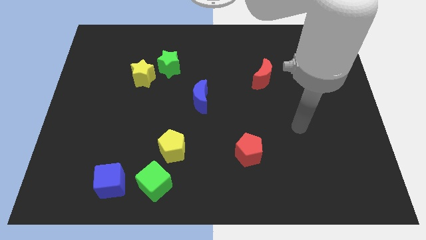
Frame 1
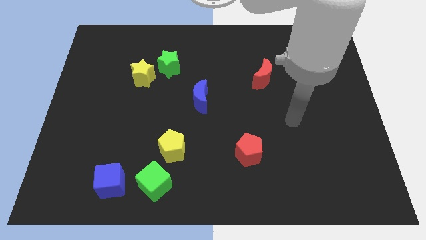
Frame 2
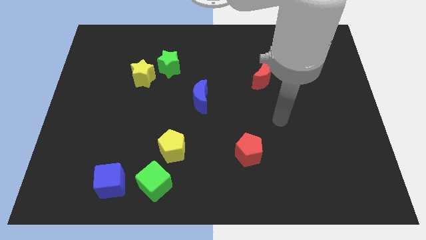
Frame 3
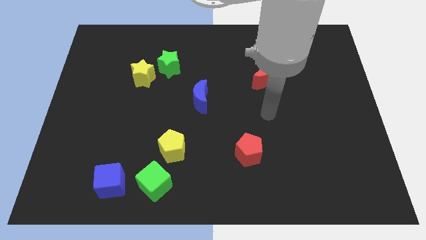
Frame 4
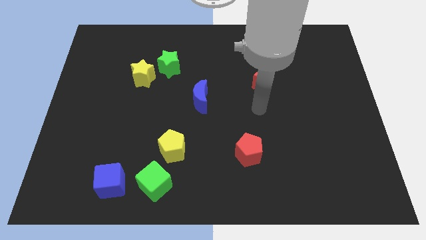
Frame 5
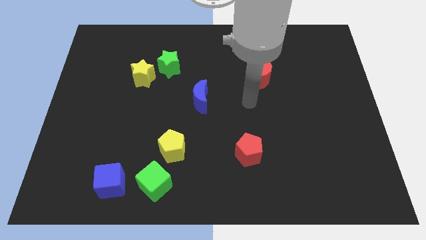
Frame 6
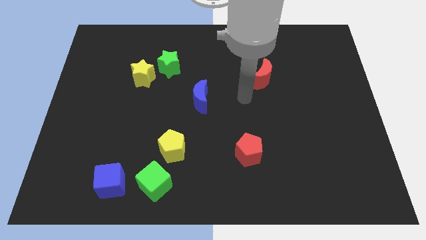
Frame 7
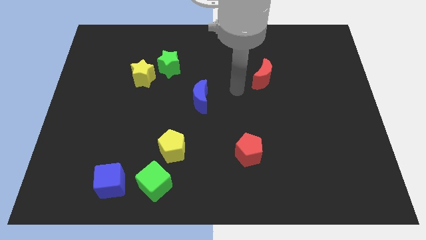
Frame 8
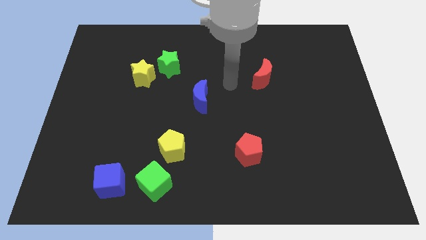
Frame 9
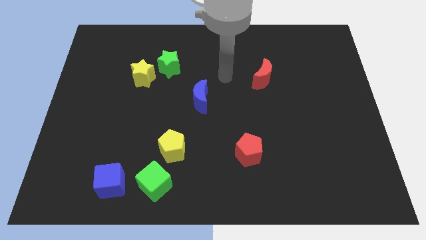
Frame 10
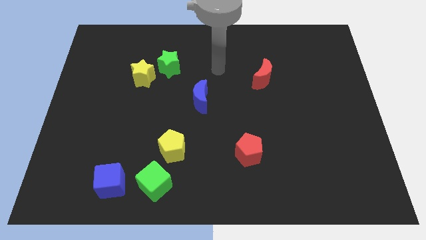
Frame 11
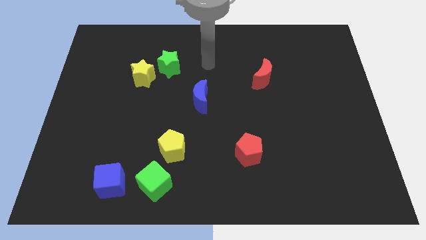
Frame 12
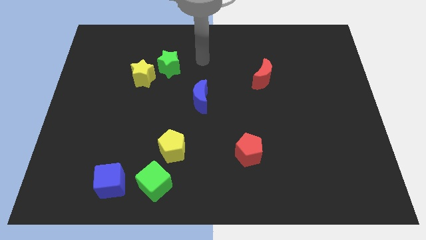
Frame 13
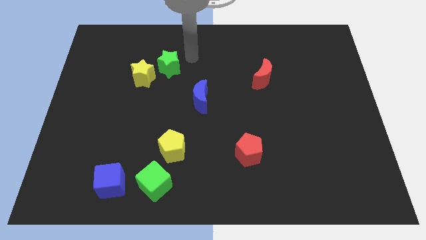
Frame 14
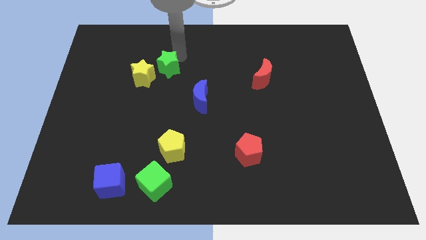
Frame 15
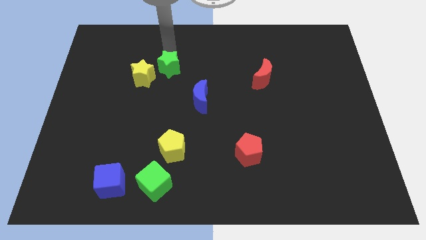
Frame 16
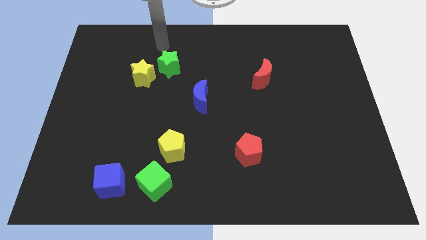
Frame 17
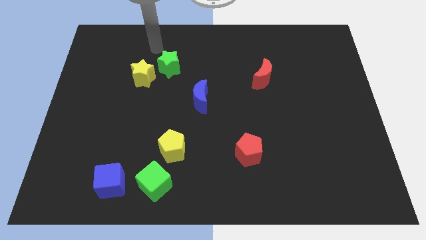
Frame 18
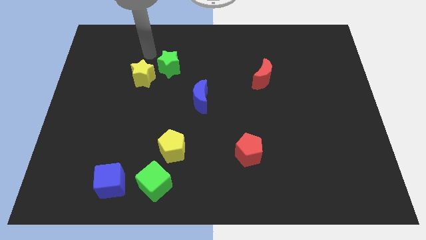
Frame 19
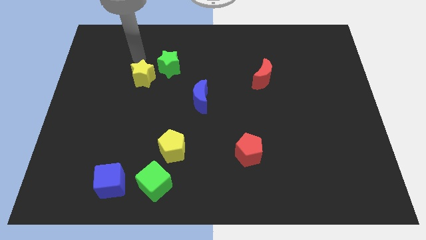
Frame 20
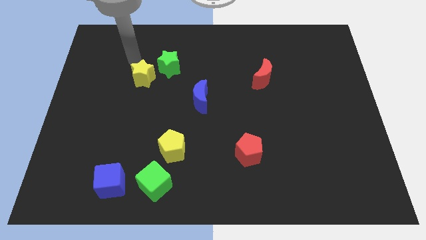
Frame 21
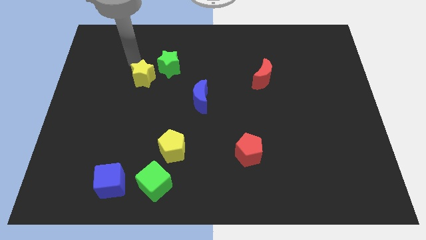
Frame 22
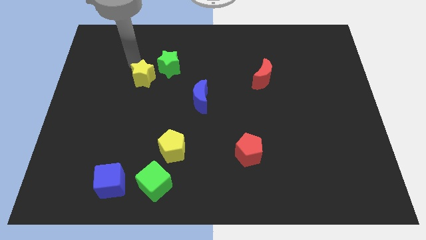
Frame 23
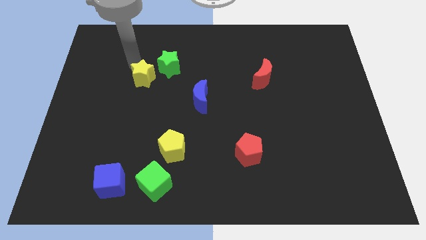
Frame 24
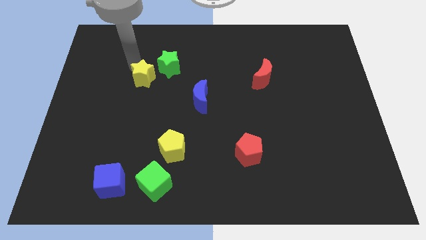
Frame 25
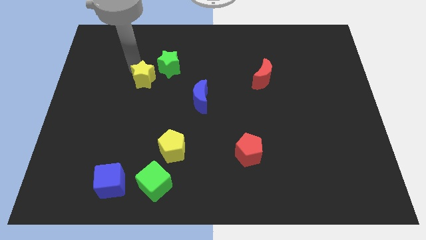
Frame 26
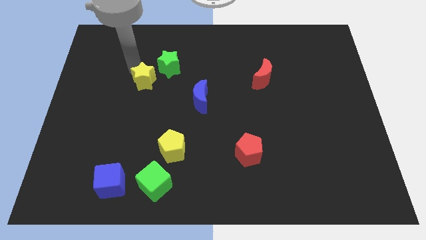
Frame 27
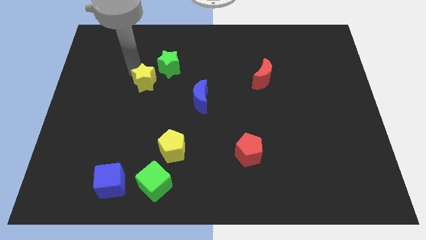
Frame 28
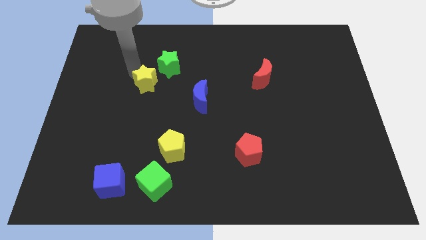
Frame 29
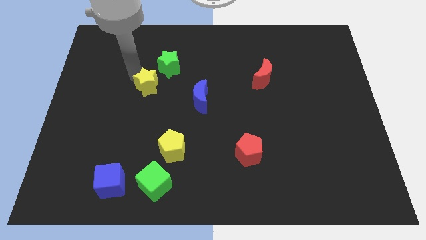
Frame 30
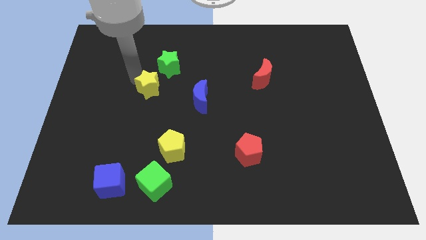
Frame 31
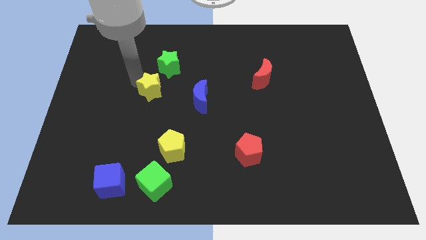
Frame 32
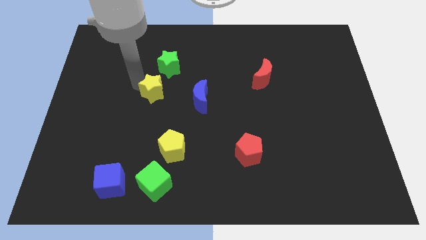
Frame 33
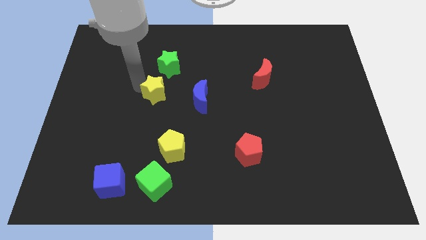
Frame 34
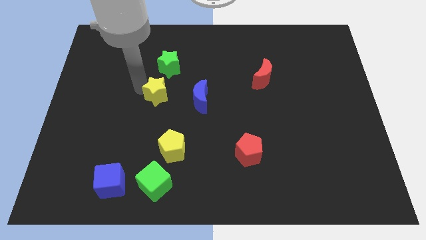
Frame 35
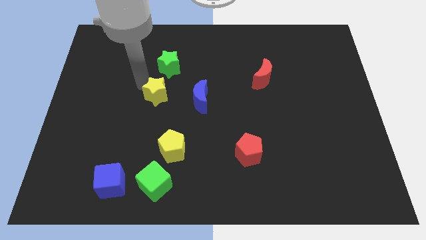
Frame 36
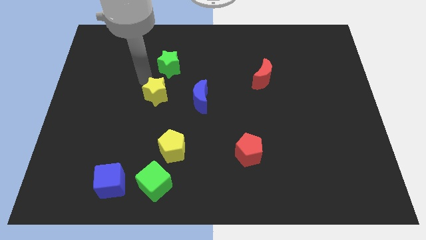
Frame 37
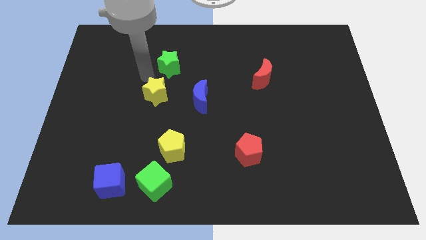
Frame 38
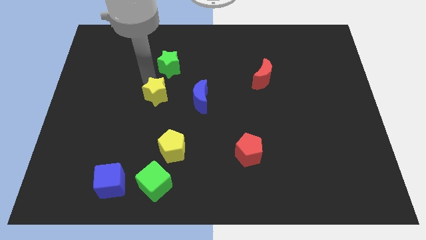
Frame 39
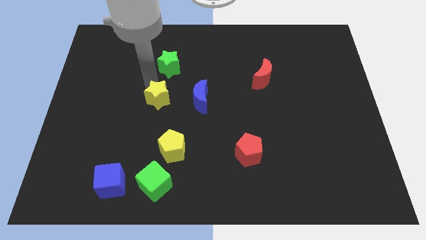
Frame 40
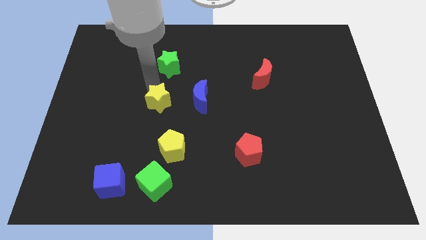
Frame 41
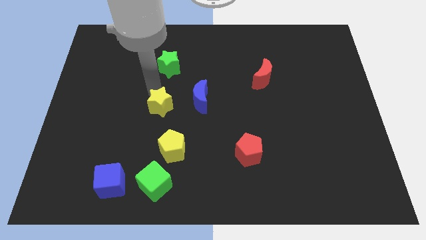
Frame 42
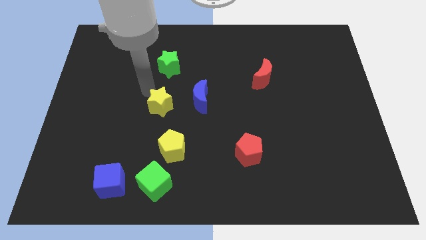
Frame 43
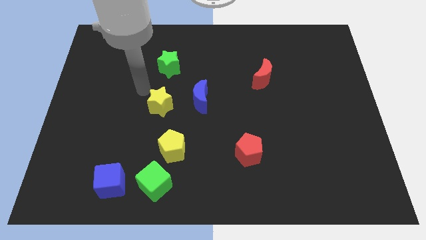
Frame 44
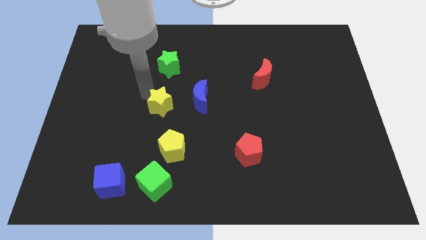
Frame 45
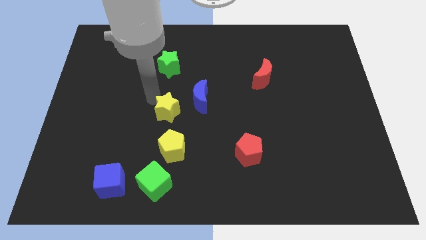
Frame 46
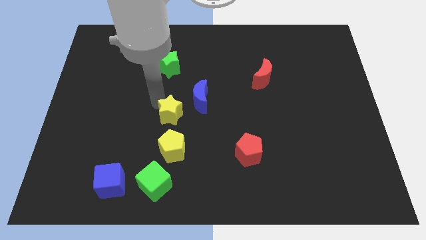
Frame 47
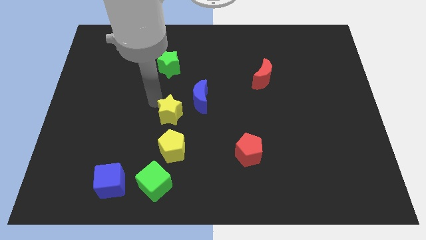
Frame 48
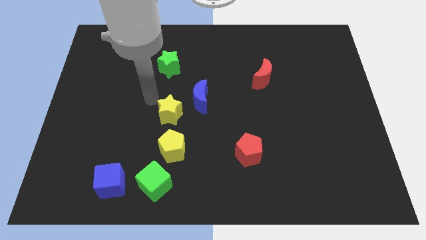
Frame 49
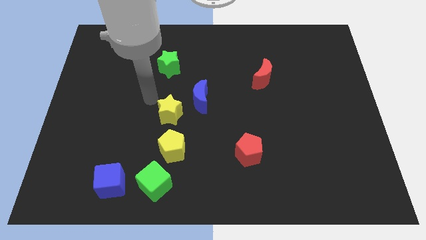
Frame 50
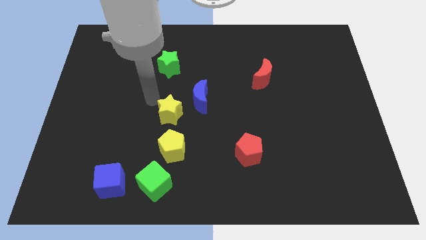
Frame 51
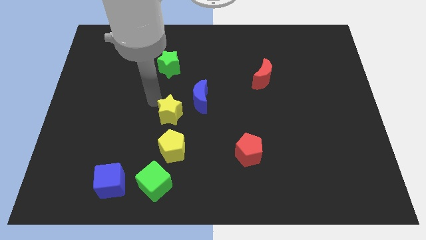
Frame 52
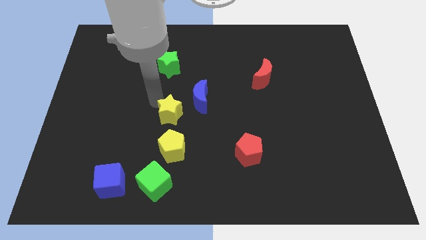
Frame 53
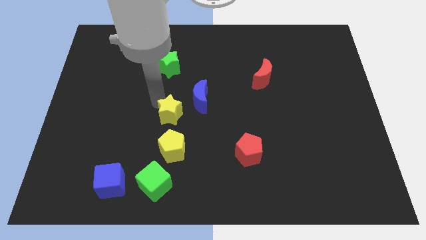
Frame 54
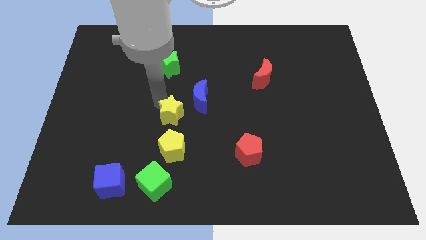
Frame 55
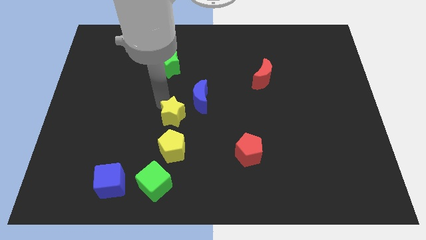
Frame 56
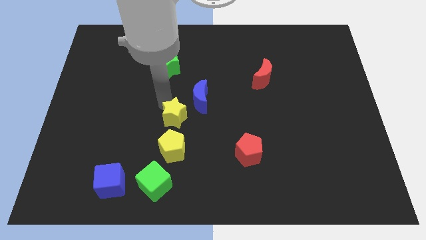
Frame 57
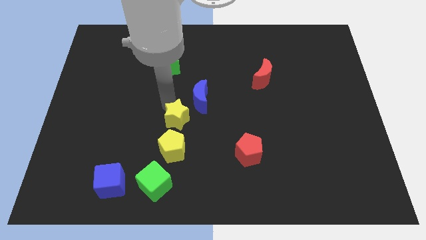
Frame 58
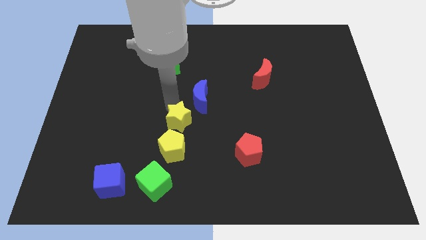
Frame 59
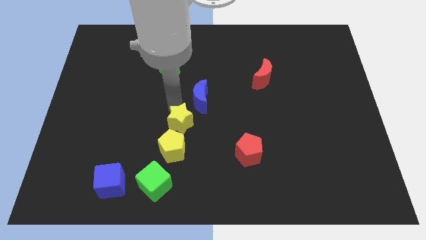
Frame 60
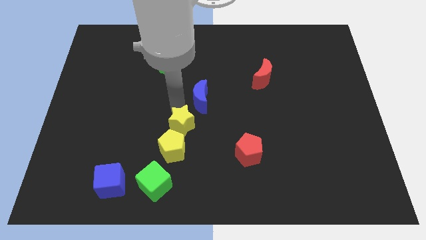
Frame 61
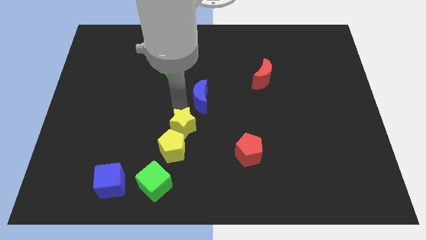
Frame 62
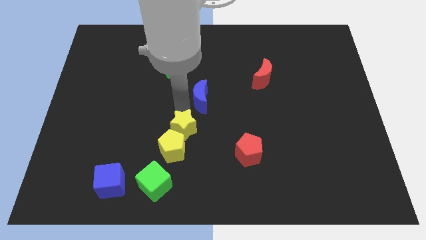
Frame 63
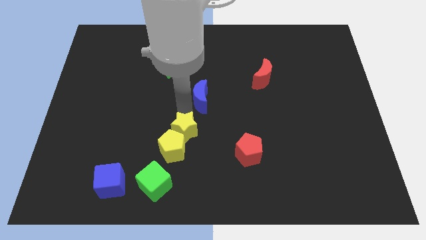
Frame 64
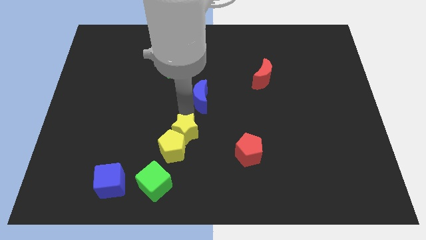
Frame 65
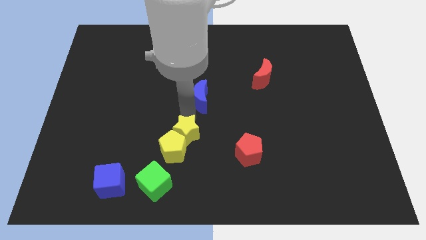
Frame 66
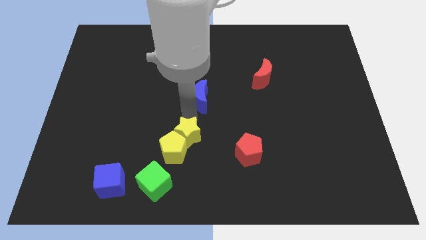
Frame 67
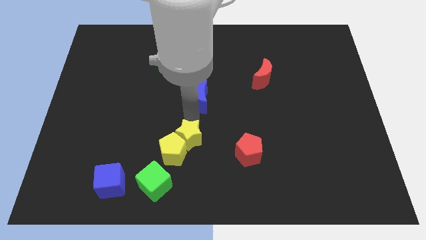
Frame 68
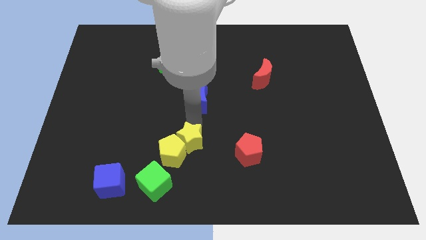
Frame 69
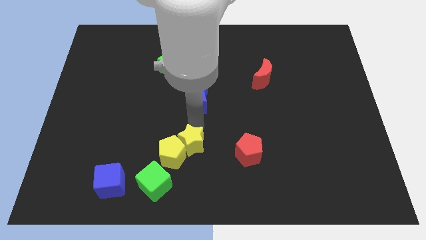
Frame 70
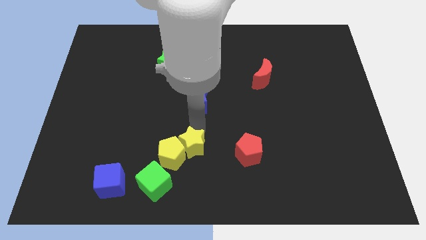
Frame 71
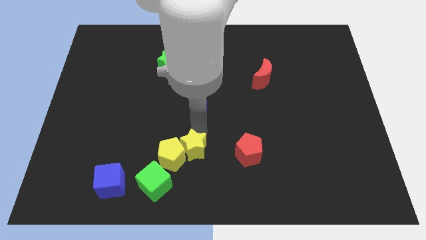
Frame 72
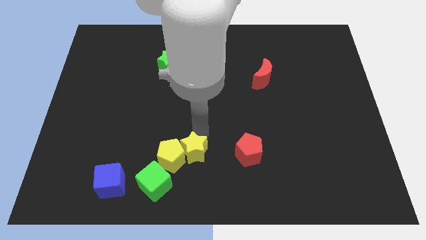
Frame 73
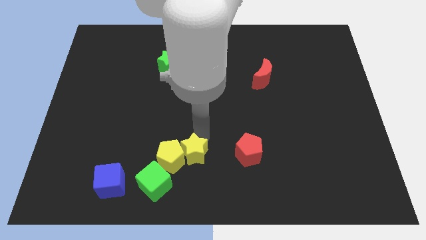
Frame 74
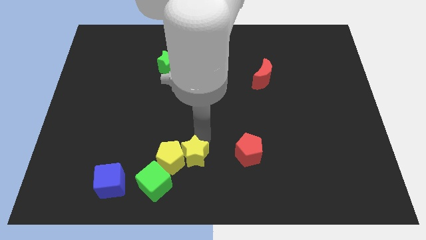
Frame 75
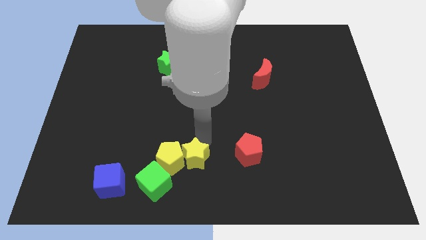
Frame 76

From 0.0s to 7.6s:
slide the yellow star to the bottom
